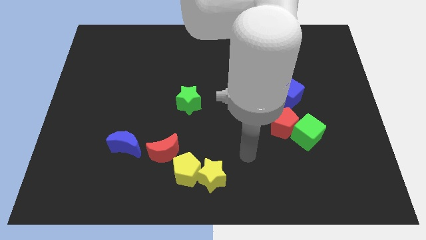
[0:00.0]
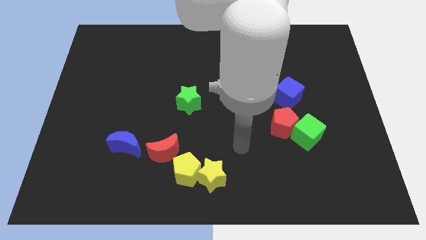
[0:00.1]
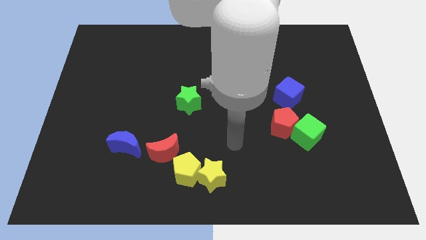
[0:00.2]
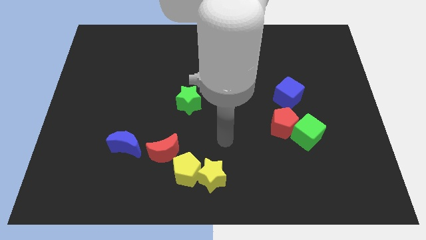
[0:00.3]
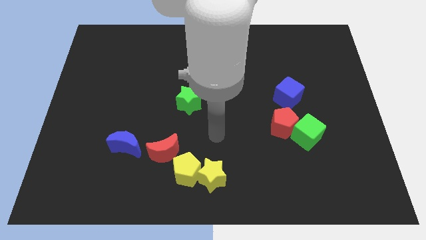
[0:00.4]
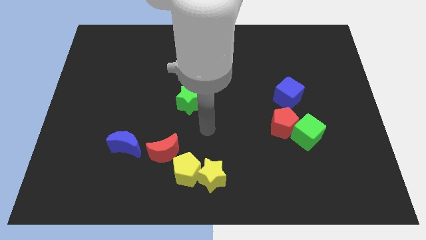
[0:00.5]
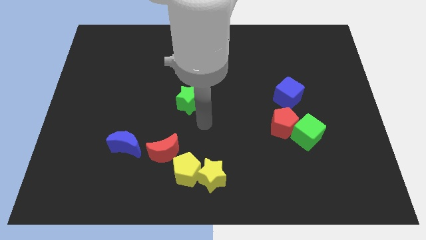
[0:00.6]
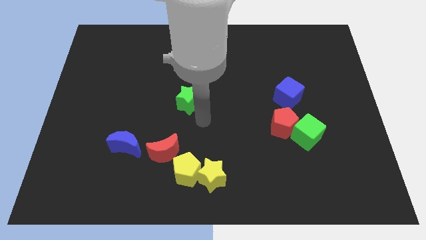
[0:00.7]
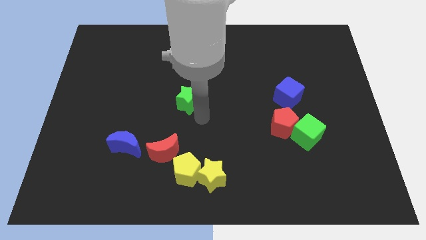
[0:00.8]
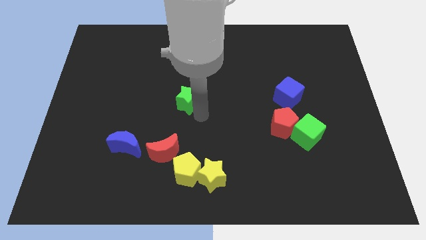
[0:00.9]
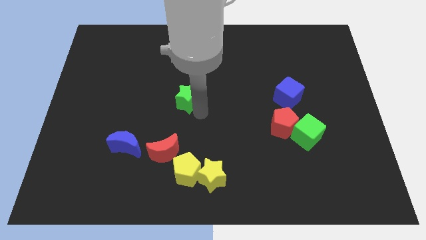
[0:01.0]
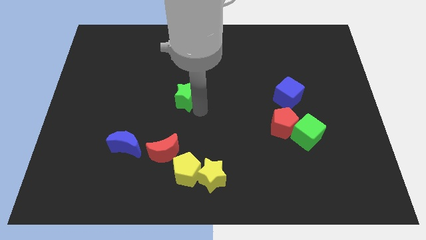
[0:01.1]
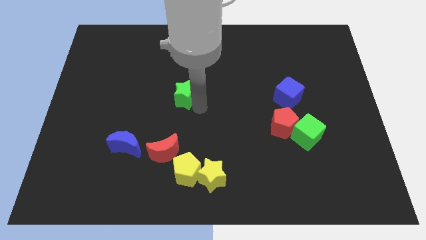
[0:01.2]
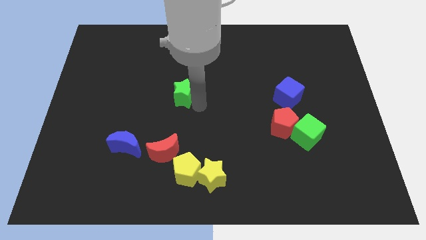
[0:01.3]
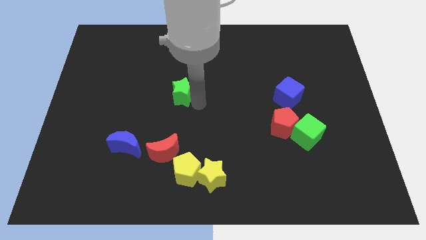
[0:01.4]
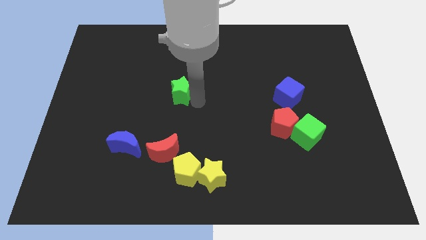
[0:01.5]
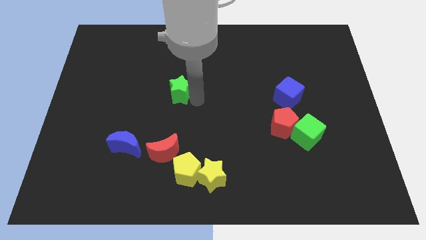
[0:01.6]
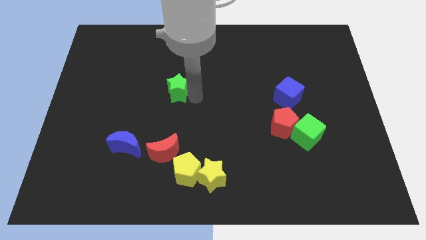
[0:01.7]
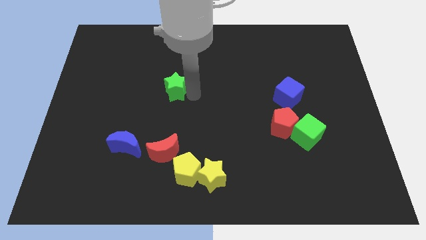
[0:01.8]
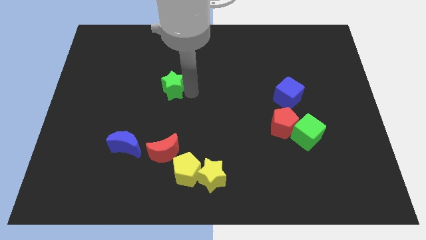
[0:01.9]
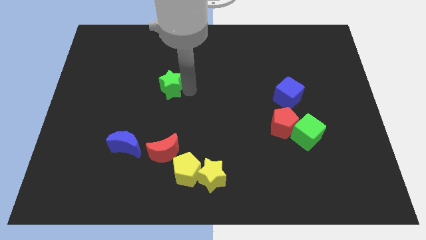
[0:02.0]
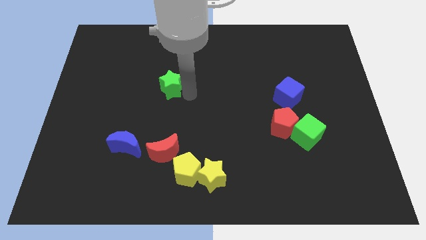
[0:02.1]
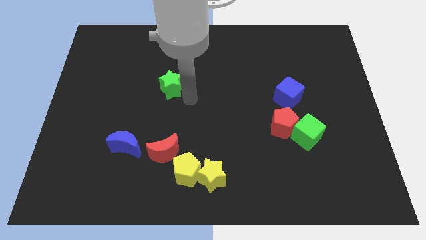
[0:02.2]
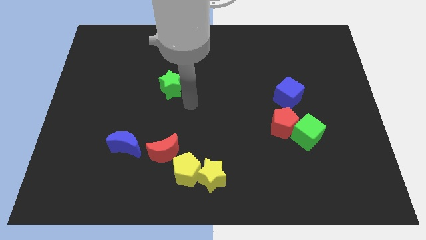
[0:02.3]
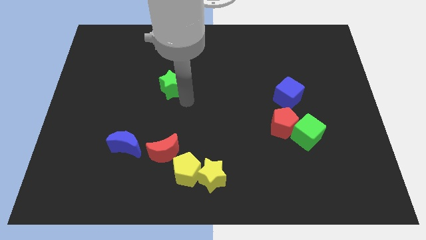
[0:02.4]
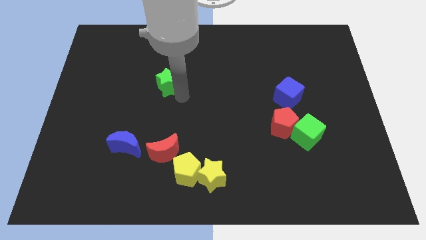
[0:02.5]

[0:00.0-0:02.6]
slightly slide the green star upwards and left diagonally

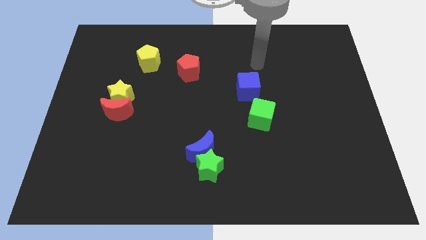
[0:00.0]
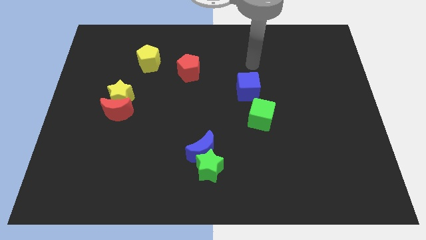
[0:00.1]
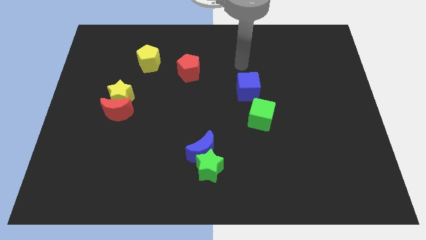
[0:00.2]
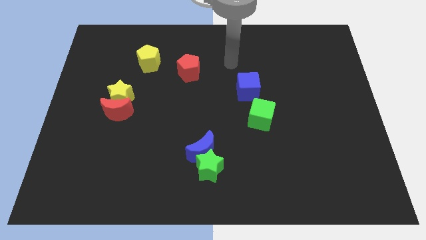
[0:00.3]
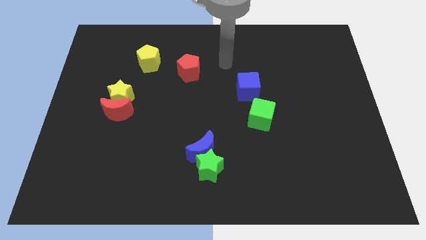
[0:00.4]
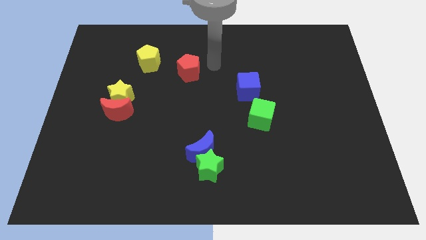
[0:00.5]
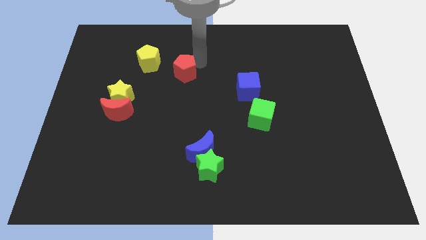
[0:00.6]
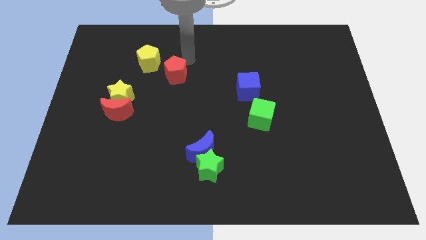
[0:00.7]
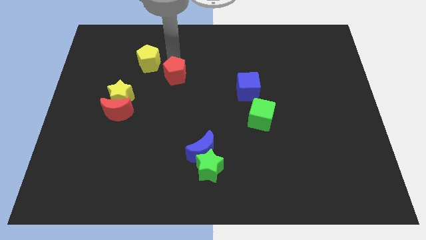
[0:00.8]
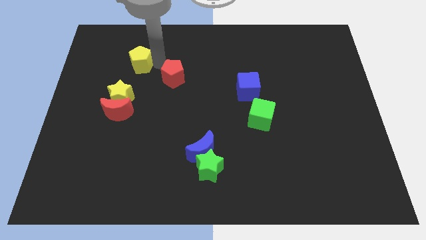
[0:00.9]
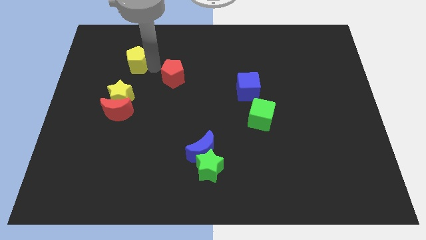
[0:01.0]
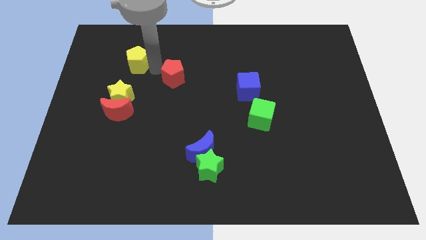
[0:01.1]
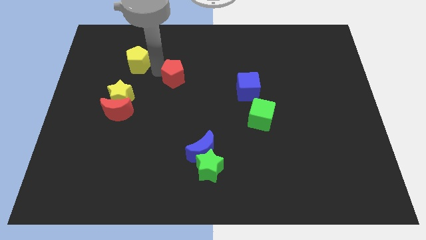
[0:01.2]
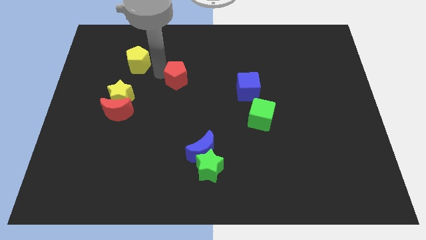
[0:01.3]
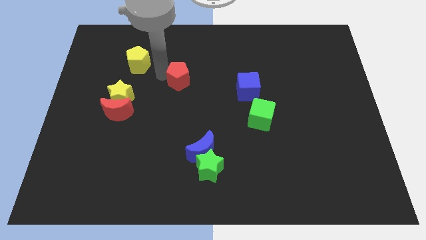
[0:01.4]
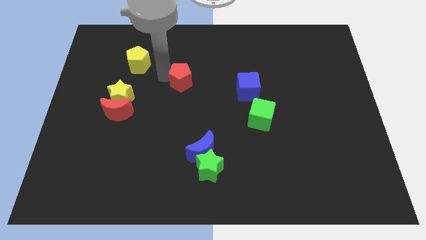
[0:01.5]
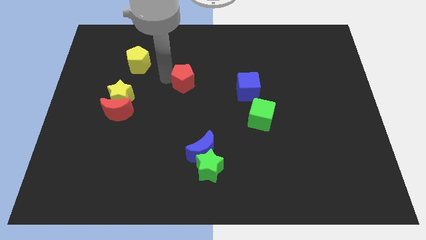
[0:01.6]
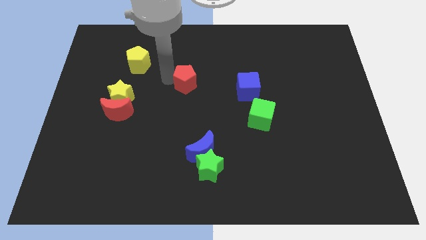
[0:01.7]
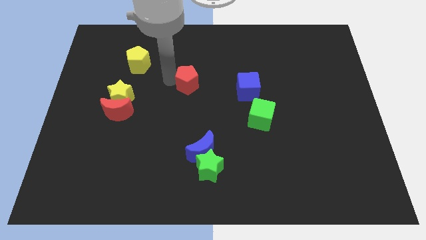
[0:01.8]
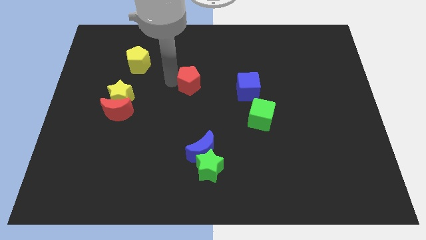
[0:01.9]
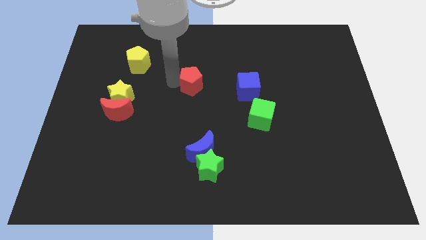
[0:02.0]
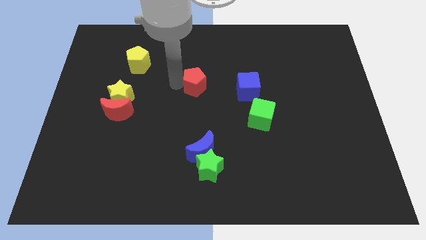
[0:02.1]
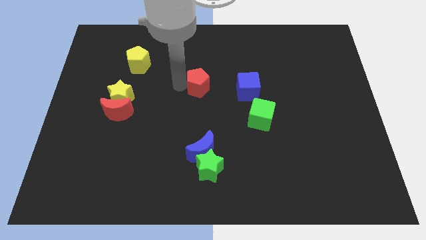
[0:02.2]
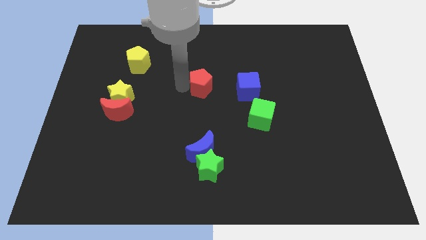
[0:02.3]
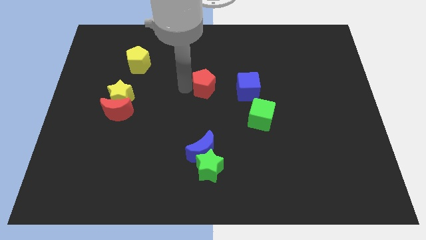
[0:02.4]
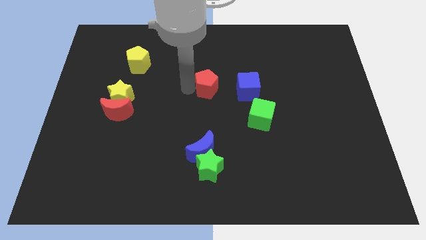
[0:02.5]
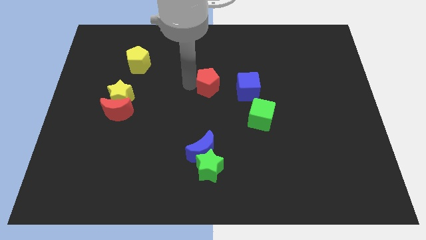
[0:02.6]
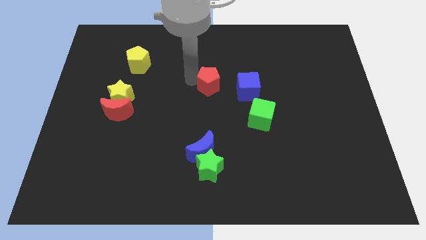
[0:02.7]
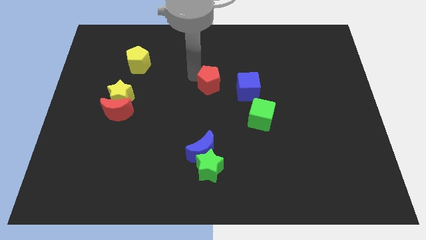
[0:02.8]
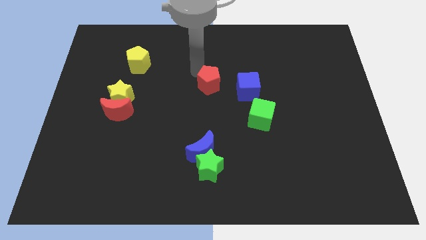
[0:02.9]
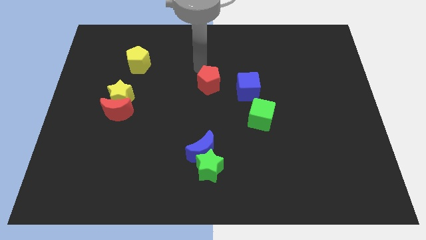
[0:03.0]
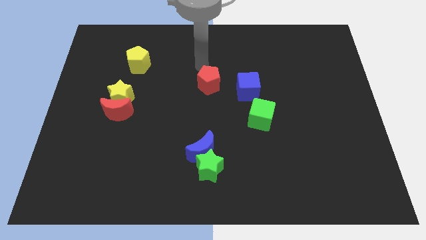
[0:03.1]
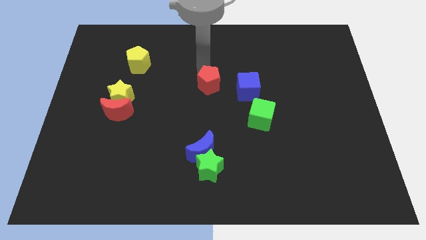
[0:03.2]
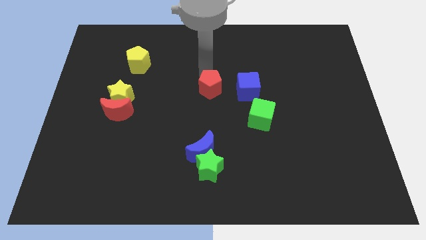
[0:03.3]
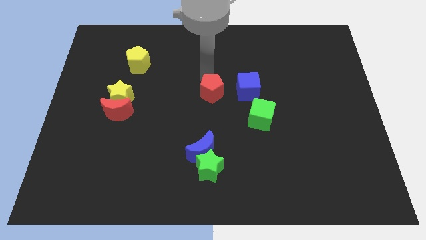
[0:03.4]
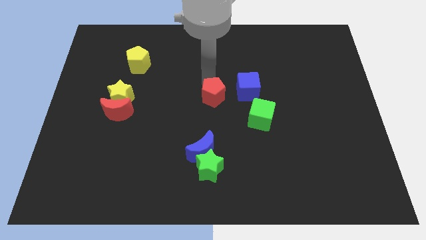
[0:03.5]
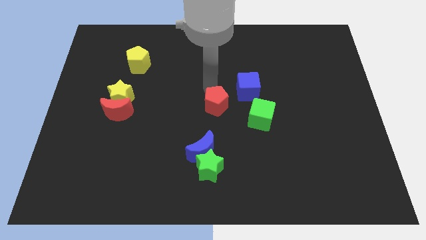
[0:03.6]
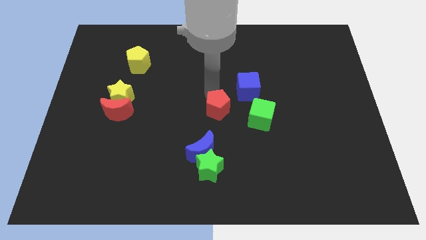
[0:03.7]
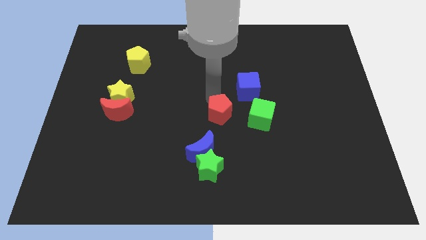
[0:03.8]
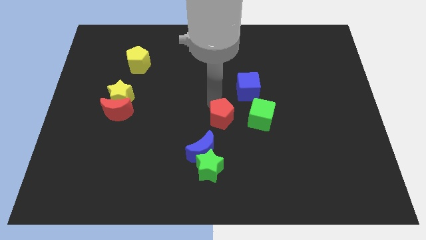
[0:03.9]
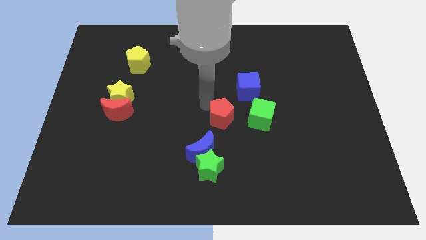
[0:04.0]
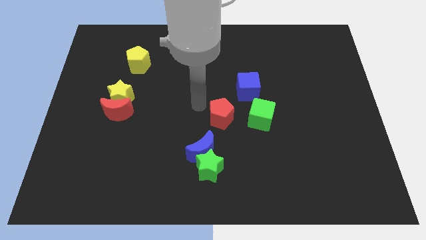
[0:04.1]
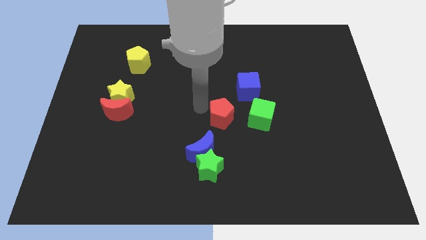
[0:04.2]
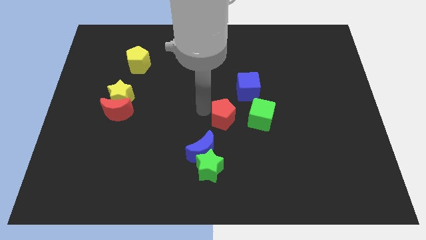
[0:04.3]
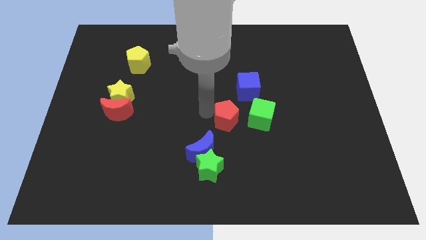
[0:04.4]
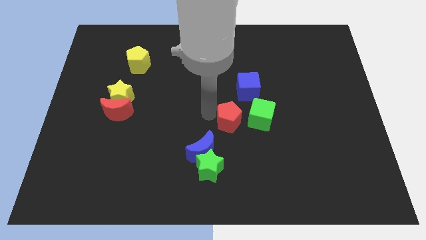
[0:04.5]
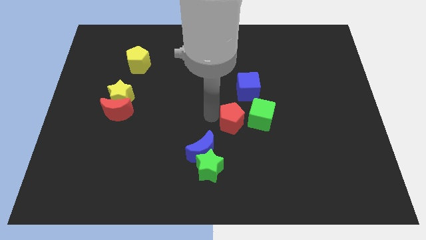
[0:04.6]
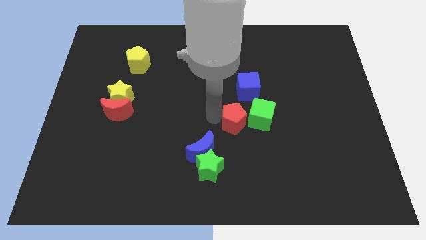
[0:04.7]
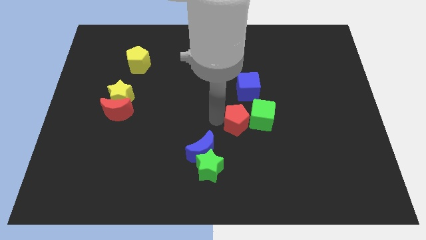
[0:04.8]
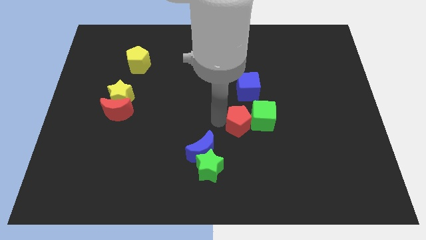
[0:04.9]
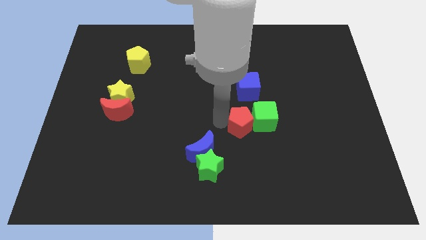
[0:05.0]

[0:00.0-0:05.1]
push the red pentagon downwards and then right

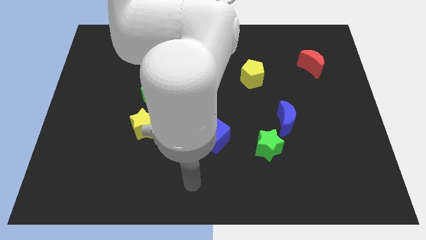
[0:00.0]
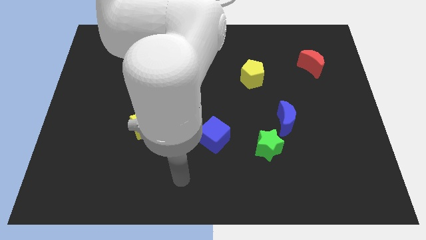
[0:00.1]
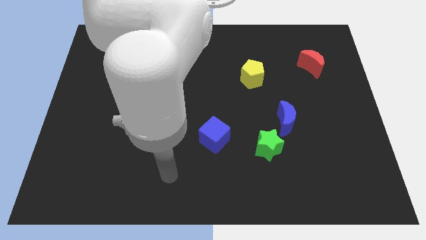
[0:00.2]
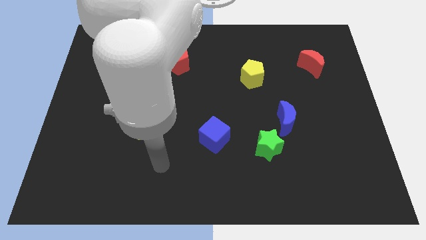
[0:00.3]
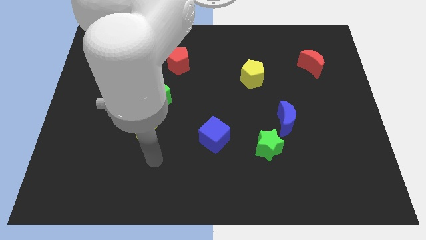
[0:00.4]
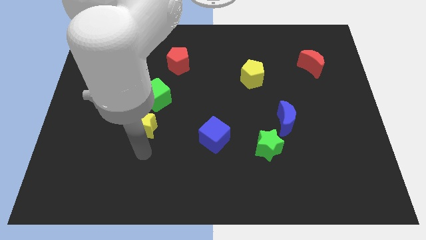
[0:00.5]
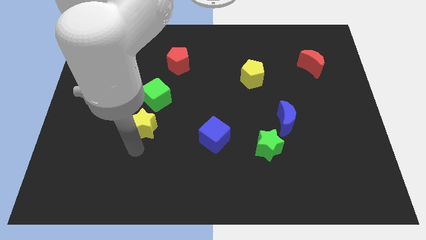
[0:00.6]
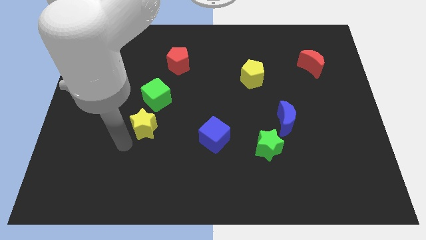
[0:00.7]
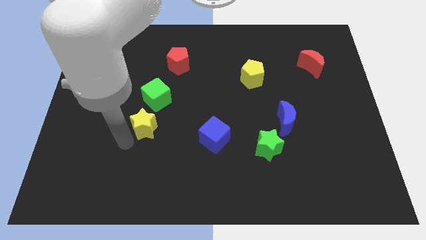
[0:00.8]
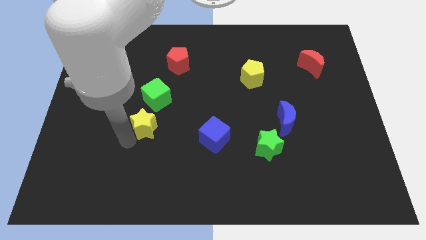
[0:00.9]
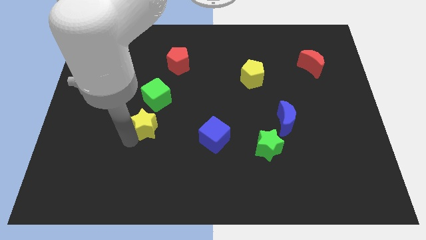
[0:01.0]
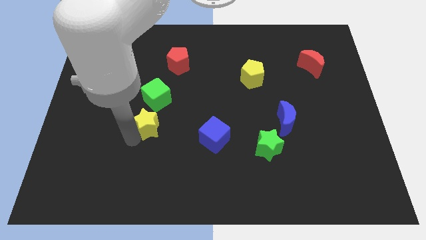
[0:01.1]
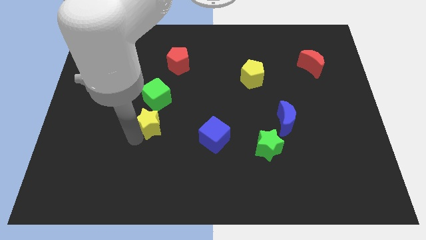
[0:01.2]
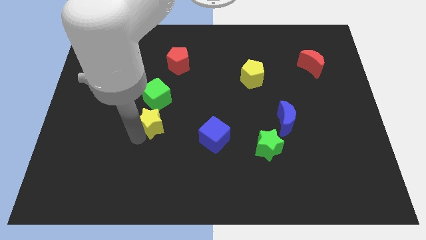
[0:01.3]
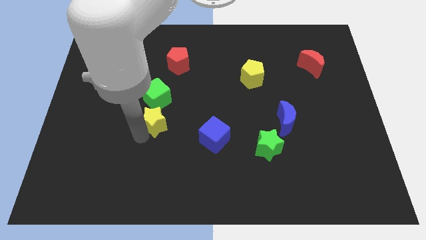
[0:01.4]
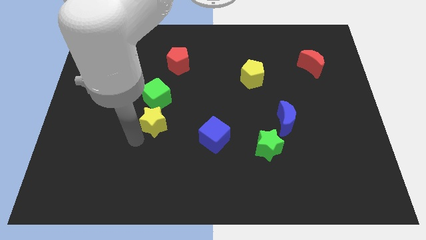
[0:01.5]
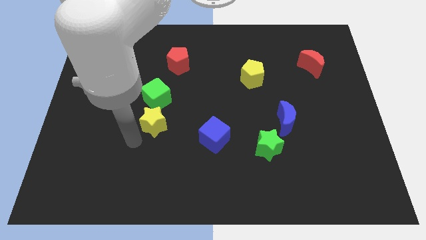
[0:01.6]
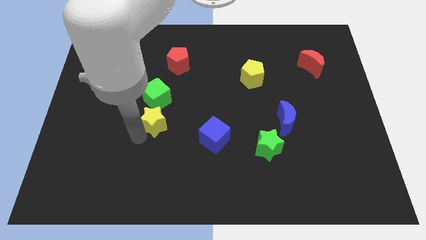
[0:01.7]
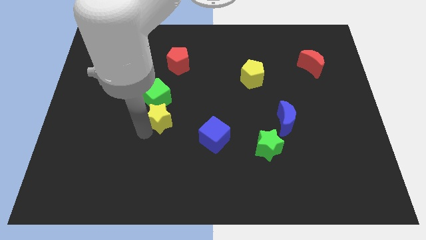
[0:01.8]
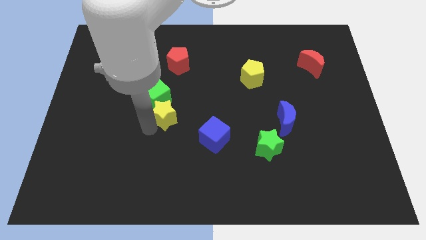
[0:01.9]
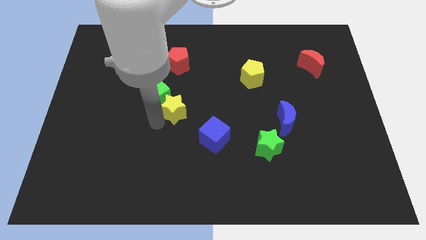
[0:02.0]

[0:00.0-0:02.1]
move the yellow star up and then right a bit
